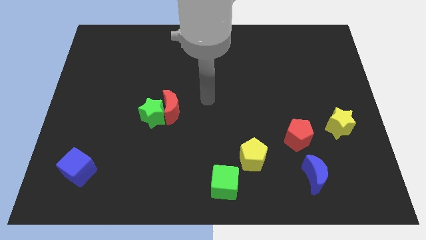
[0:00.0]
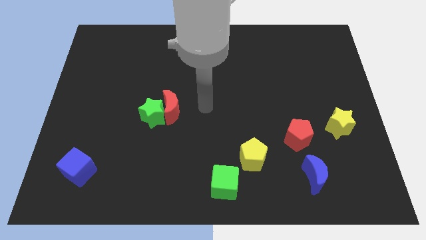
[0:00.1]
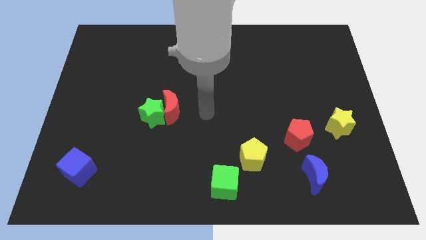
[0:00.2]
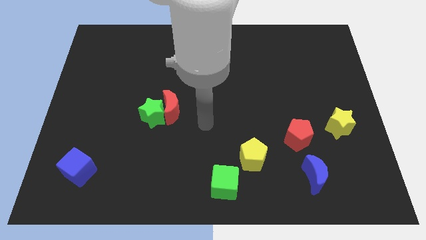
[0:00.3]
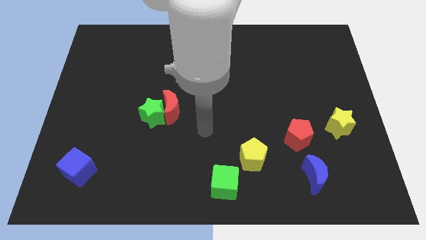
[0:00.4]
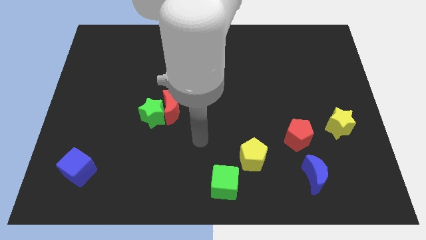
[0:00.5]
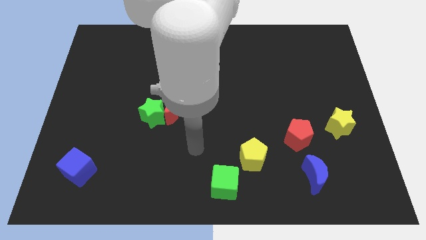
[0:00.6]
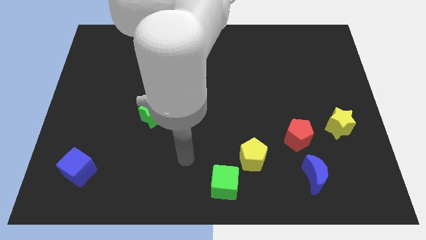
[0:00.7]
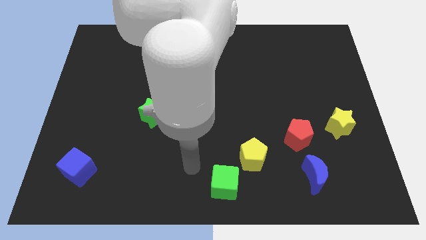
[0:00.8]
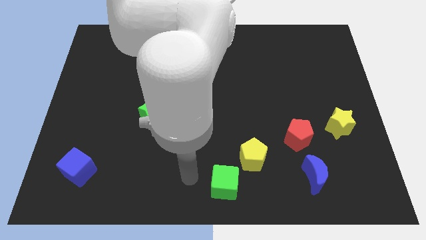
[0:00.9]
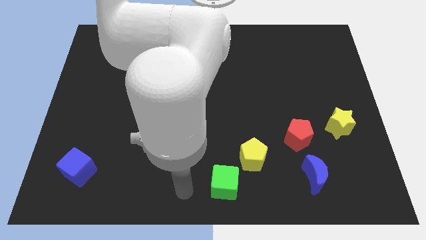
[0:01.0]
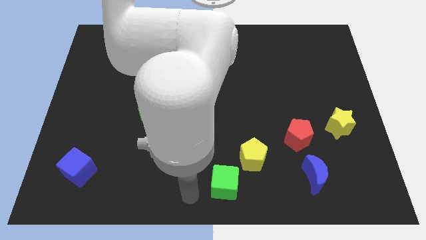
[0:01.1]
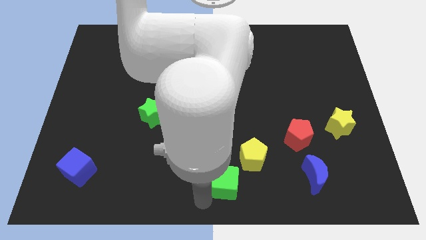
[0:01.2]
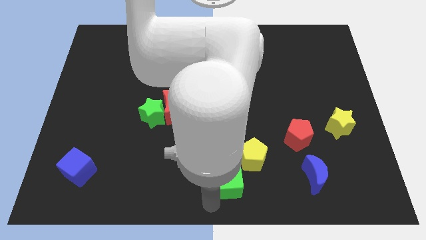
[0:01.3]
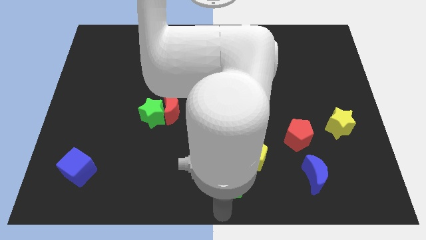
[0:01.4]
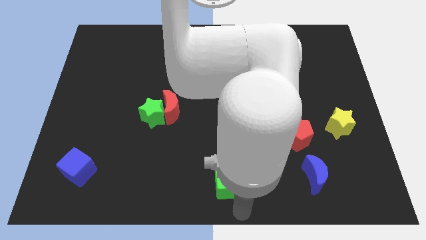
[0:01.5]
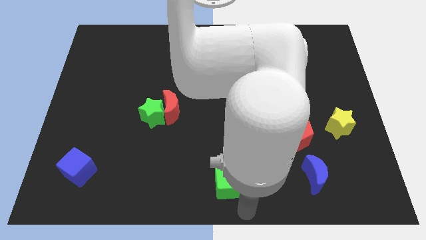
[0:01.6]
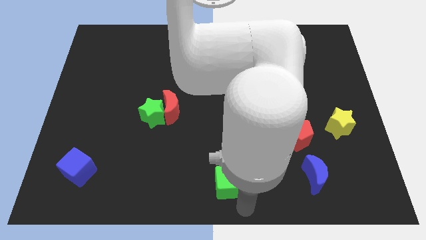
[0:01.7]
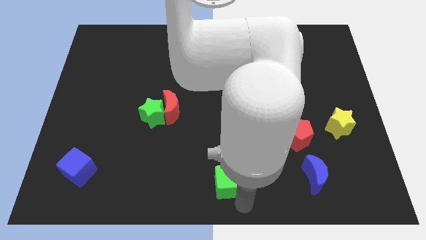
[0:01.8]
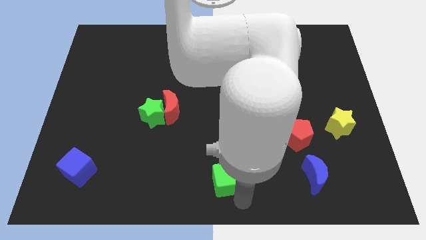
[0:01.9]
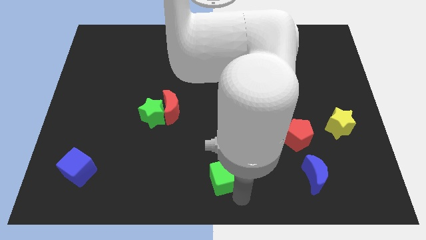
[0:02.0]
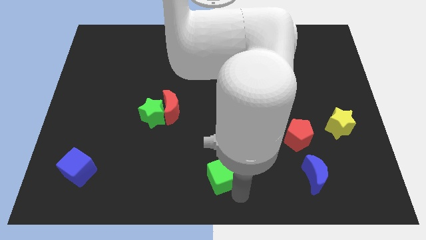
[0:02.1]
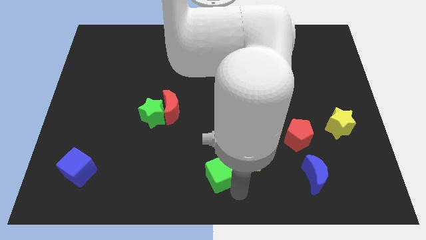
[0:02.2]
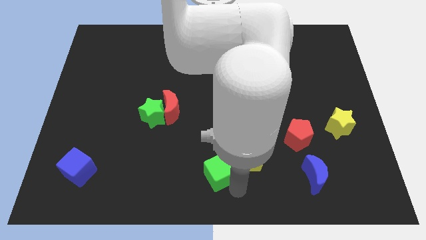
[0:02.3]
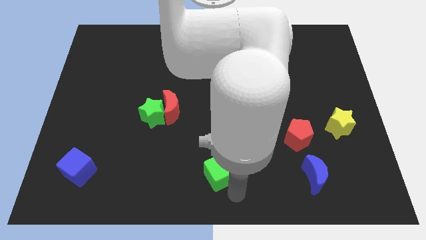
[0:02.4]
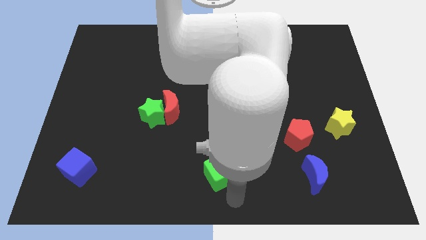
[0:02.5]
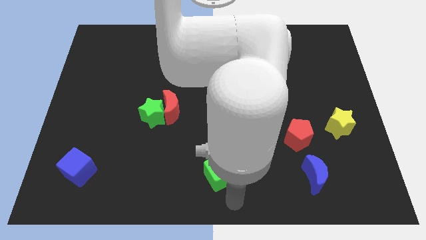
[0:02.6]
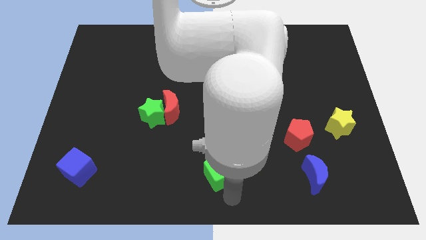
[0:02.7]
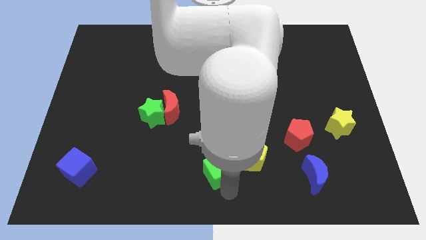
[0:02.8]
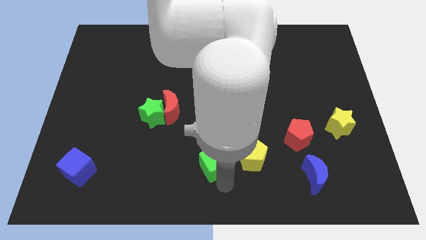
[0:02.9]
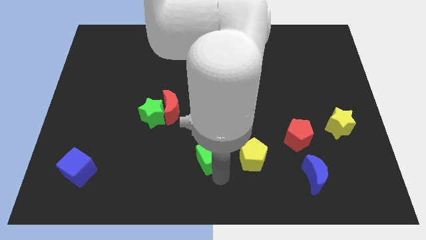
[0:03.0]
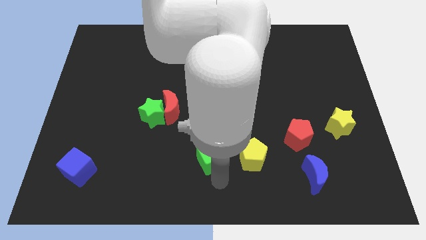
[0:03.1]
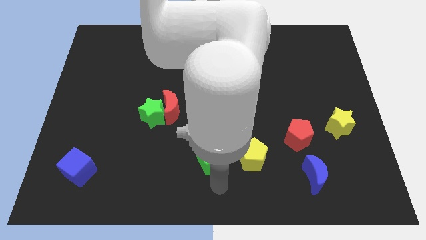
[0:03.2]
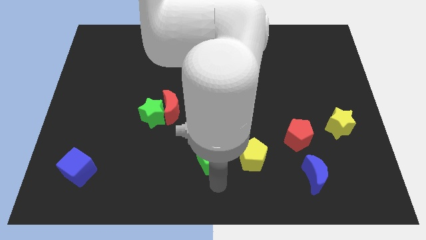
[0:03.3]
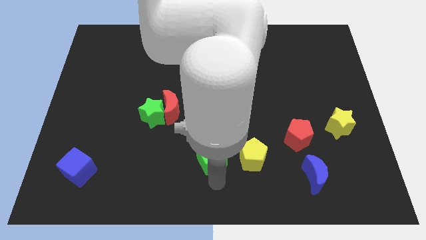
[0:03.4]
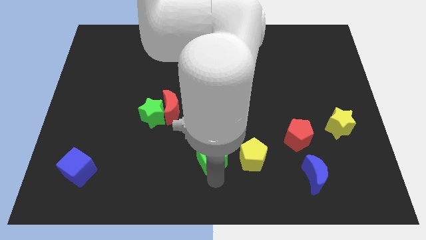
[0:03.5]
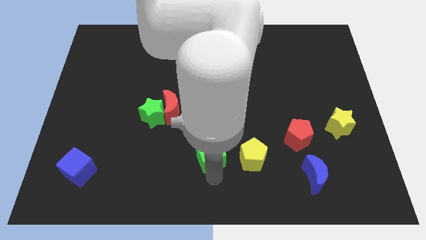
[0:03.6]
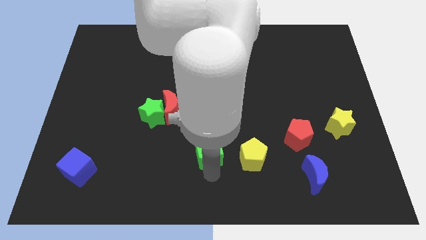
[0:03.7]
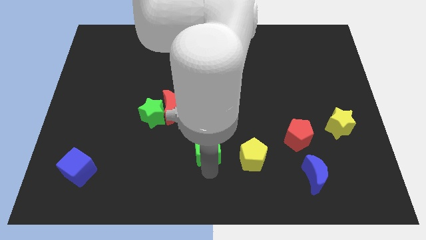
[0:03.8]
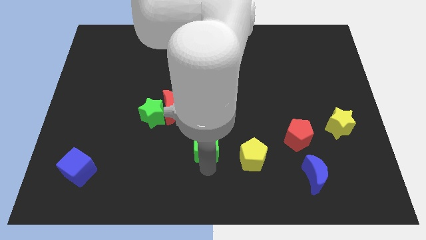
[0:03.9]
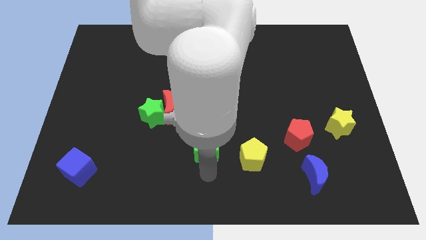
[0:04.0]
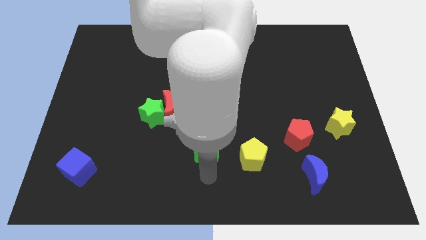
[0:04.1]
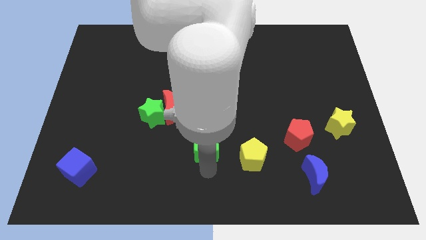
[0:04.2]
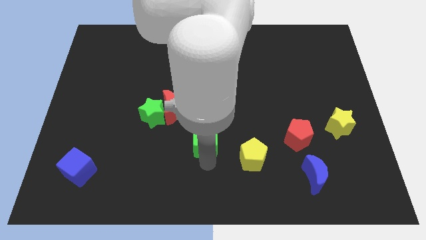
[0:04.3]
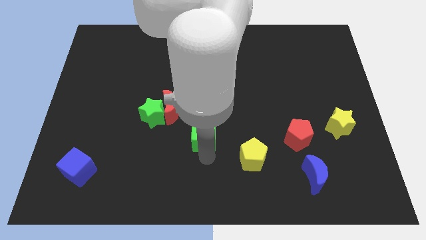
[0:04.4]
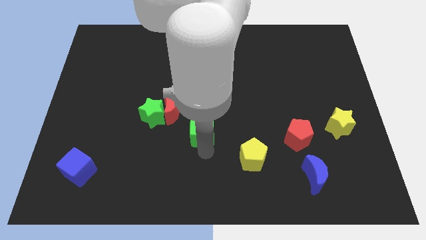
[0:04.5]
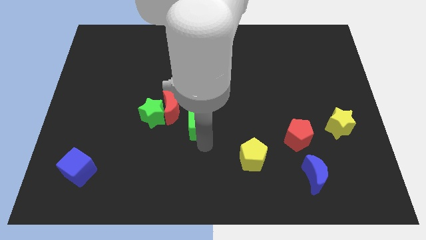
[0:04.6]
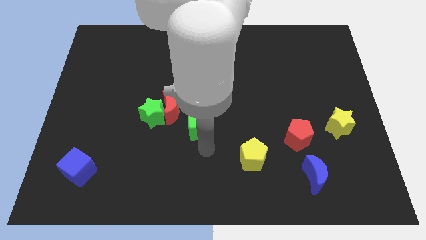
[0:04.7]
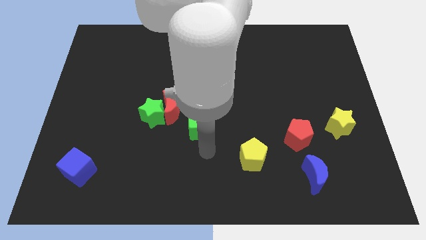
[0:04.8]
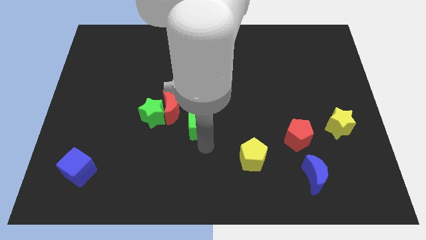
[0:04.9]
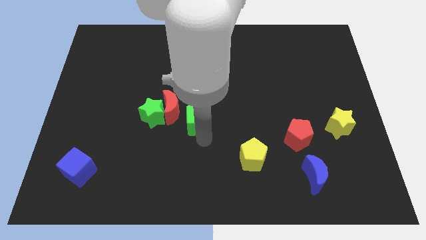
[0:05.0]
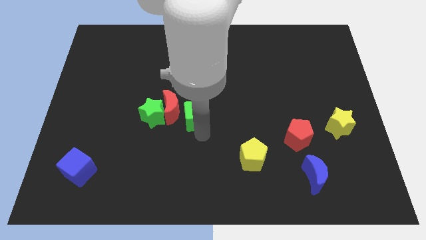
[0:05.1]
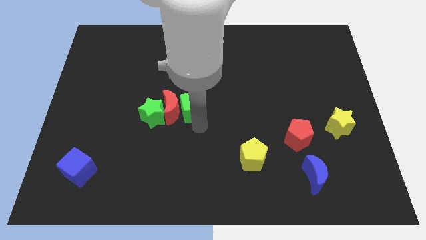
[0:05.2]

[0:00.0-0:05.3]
put the green cube diagonally up and to the right of the green star

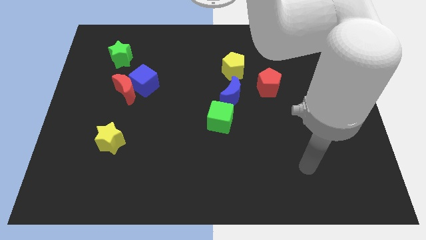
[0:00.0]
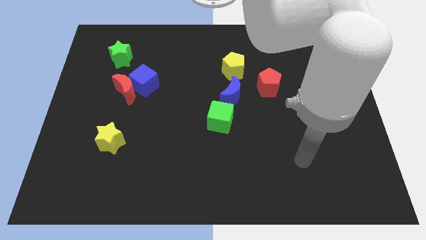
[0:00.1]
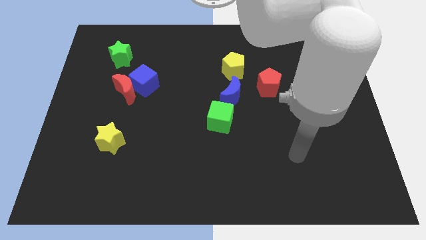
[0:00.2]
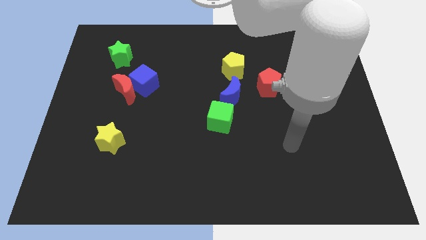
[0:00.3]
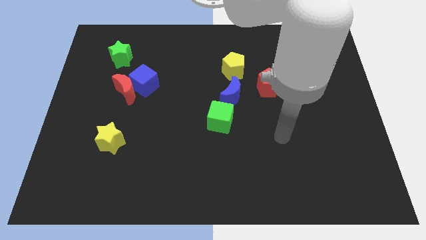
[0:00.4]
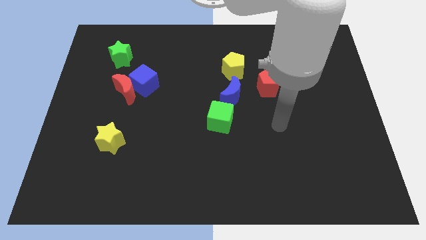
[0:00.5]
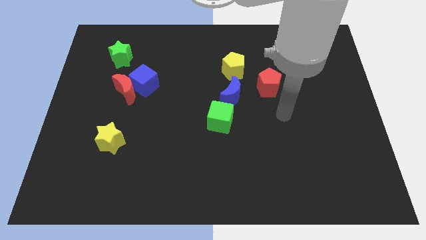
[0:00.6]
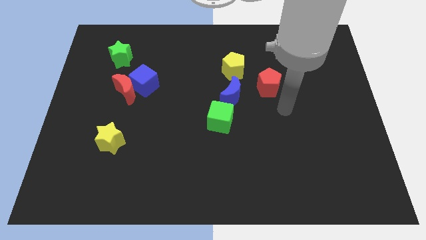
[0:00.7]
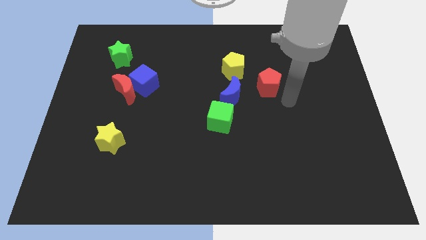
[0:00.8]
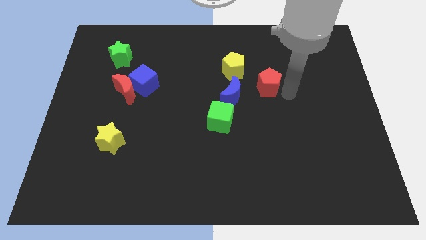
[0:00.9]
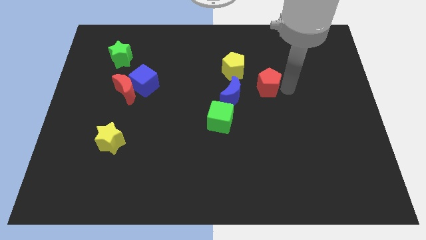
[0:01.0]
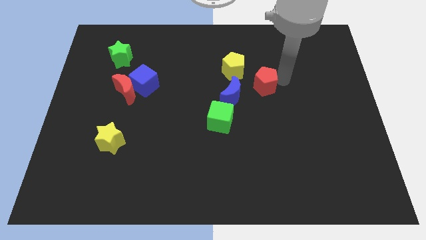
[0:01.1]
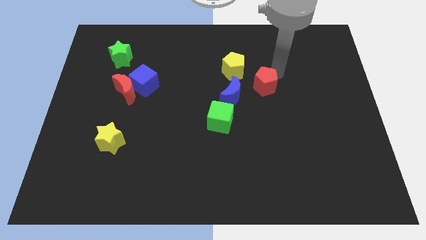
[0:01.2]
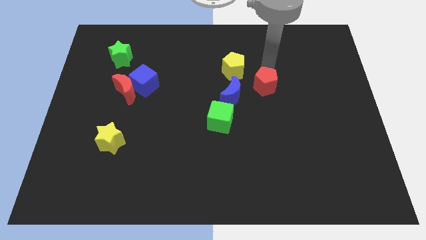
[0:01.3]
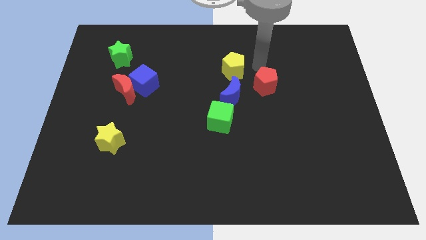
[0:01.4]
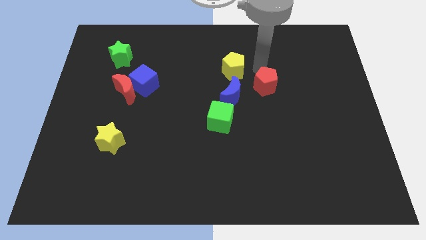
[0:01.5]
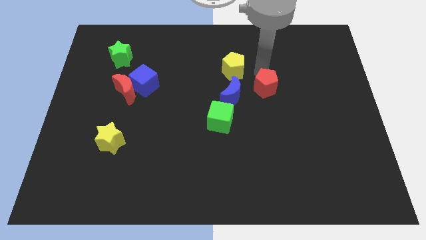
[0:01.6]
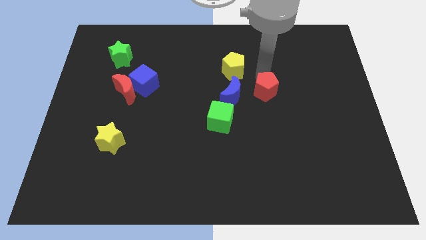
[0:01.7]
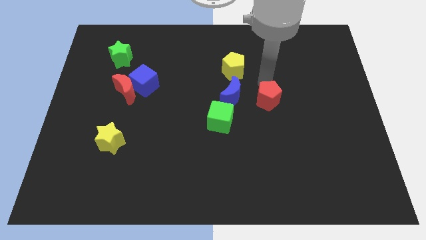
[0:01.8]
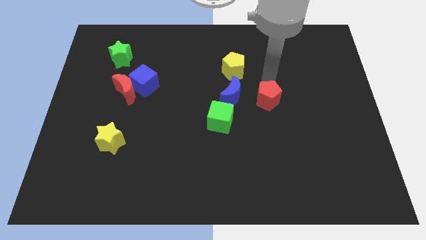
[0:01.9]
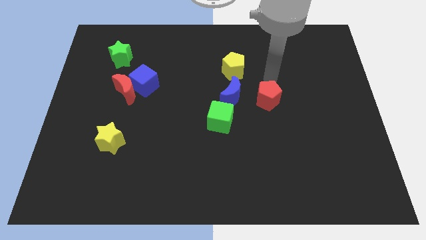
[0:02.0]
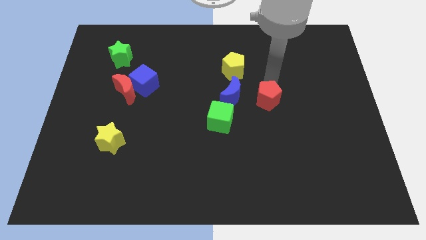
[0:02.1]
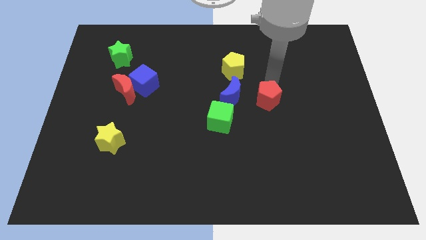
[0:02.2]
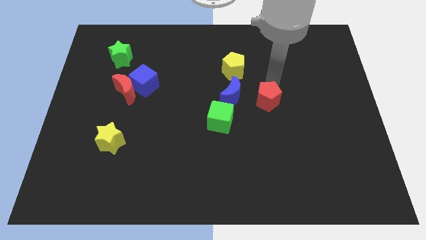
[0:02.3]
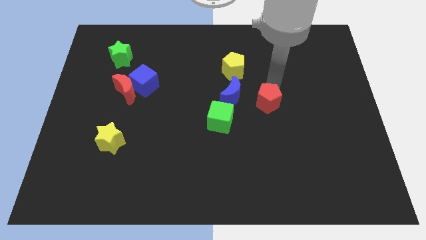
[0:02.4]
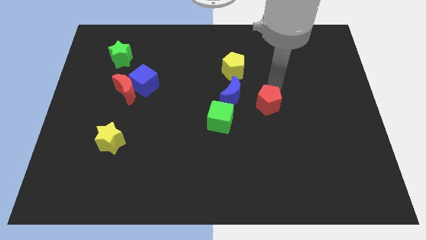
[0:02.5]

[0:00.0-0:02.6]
push the red pentagon just right of the green cube
